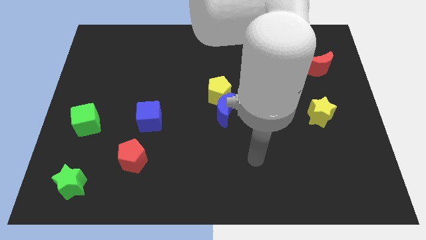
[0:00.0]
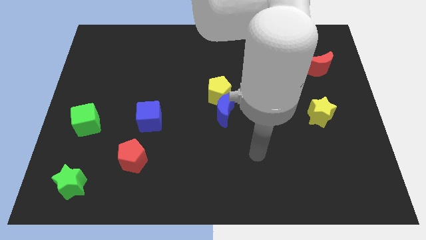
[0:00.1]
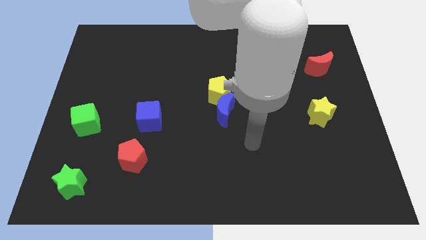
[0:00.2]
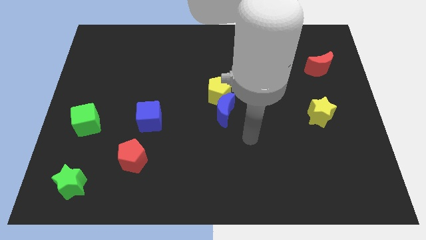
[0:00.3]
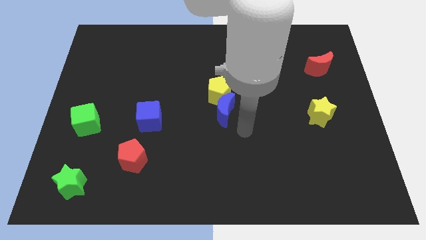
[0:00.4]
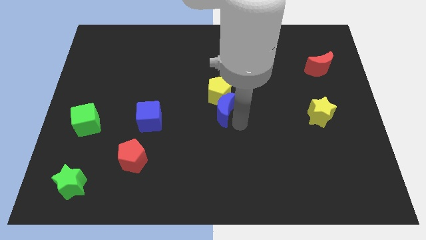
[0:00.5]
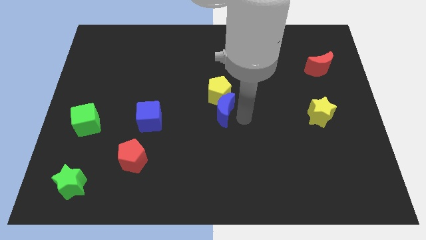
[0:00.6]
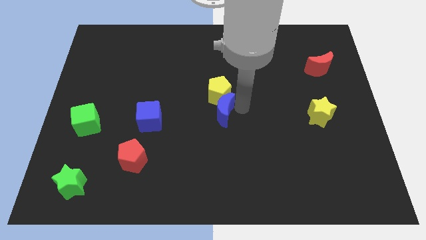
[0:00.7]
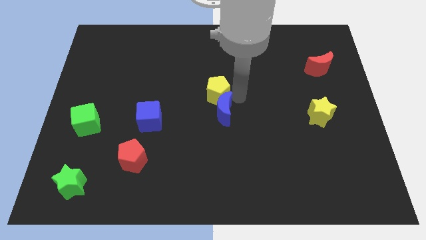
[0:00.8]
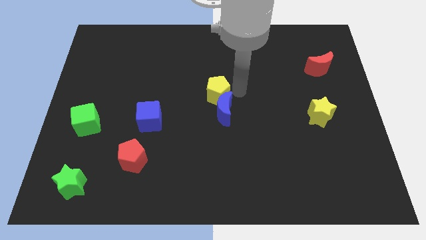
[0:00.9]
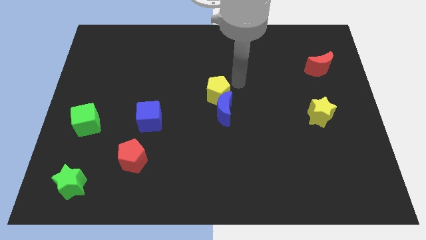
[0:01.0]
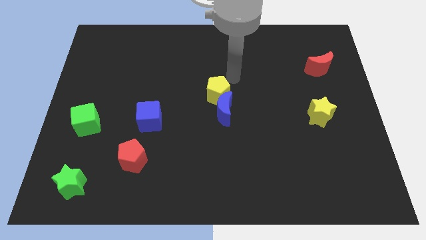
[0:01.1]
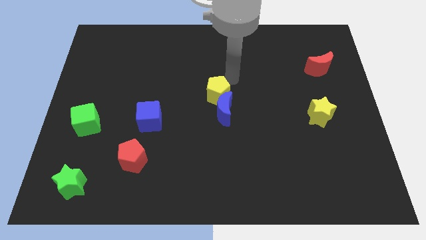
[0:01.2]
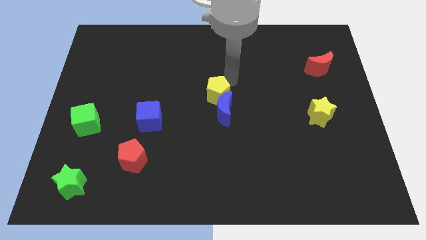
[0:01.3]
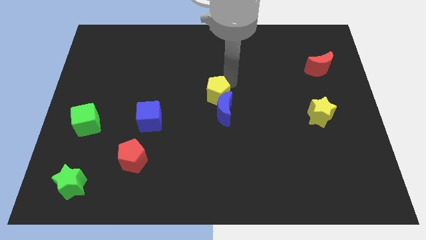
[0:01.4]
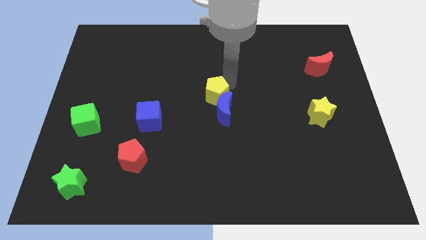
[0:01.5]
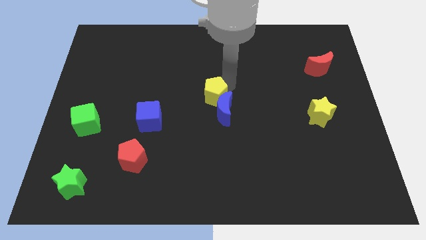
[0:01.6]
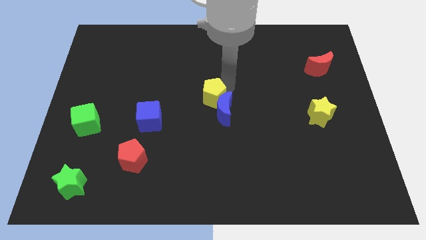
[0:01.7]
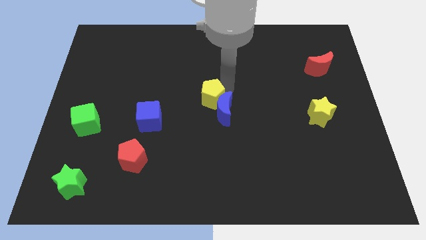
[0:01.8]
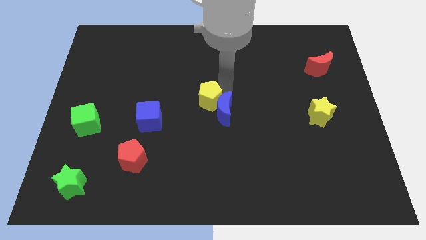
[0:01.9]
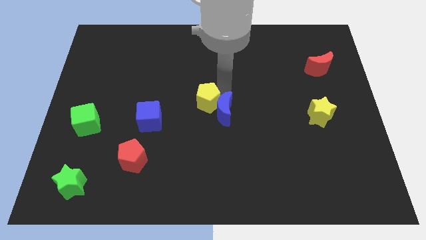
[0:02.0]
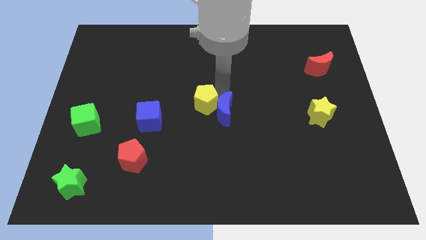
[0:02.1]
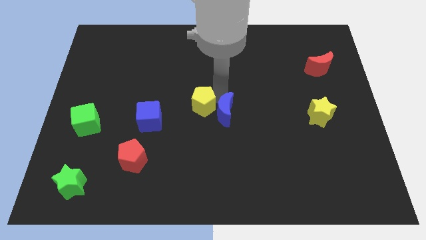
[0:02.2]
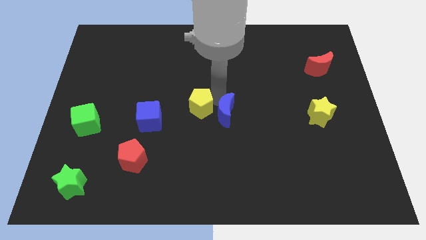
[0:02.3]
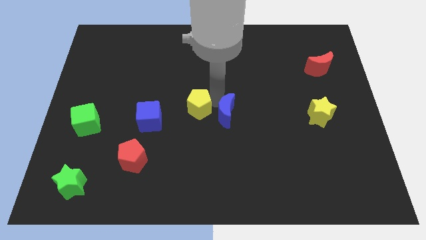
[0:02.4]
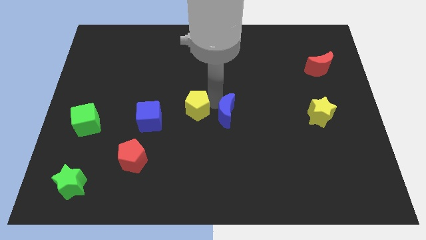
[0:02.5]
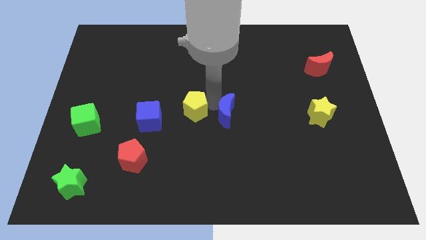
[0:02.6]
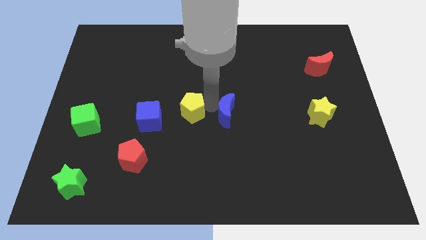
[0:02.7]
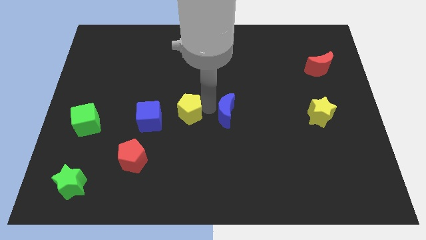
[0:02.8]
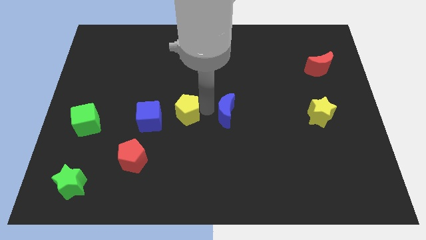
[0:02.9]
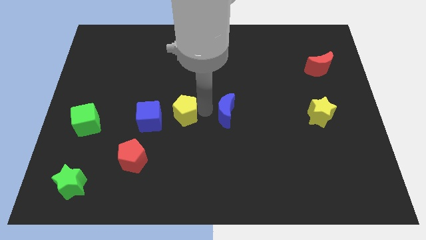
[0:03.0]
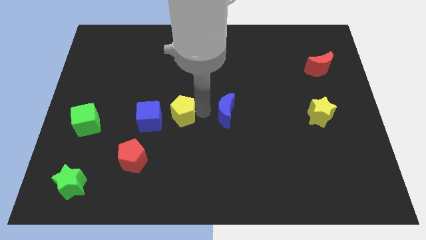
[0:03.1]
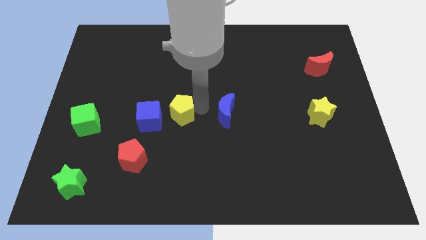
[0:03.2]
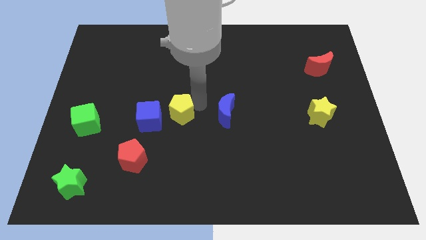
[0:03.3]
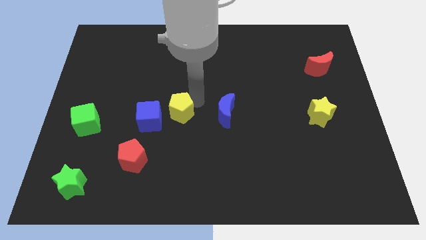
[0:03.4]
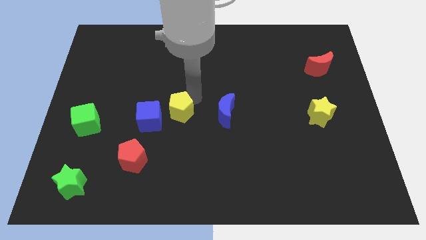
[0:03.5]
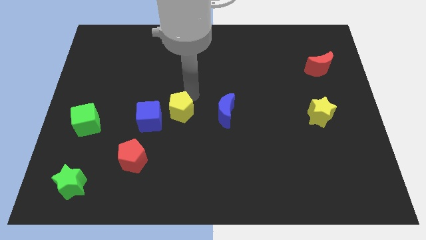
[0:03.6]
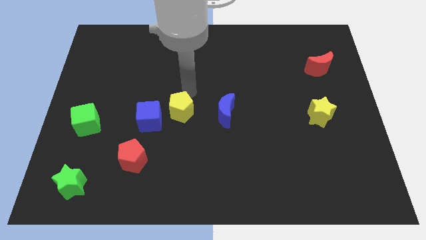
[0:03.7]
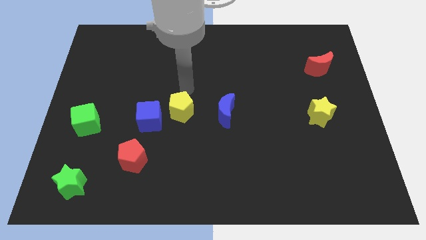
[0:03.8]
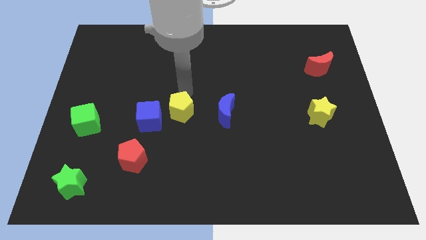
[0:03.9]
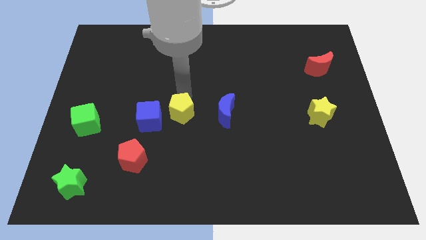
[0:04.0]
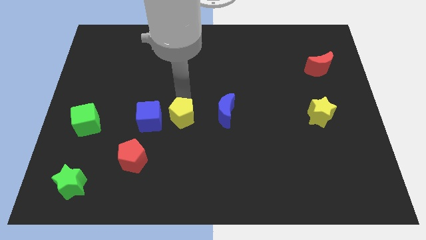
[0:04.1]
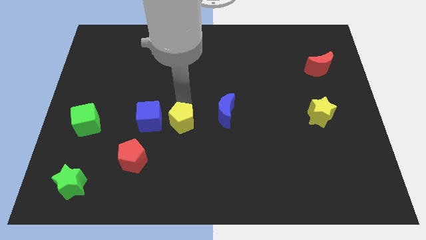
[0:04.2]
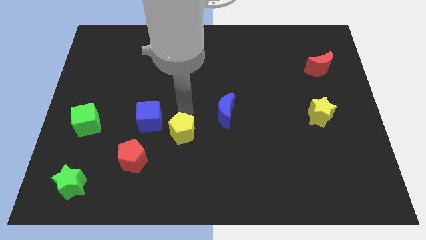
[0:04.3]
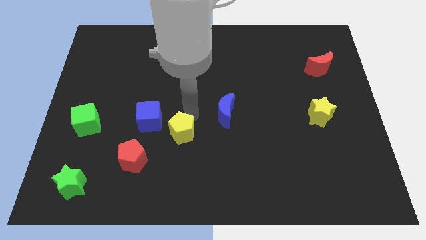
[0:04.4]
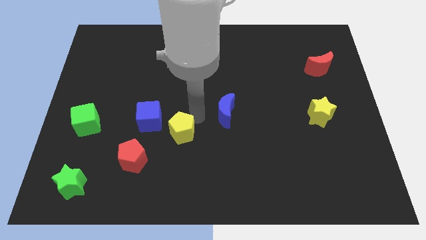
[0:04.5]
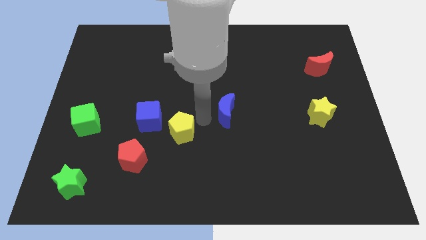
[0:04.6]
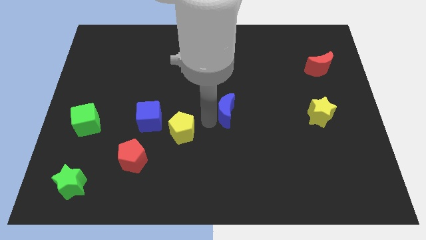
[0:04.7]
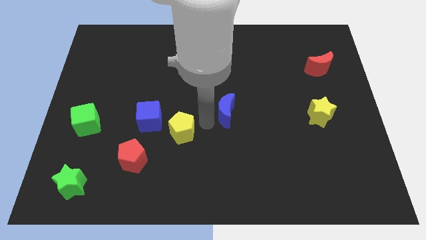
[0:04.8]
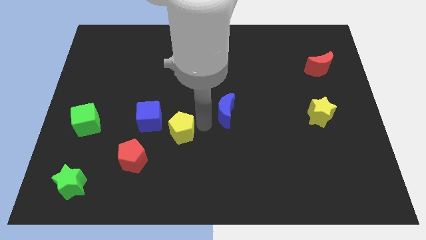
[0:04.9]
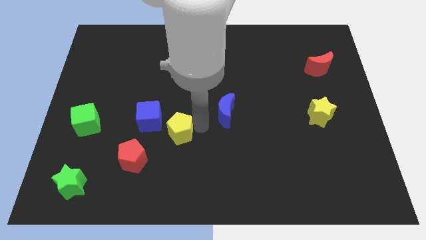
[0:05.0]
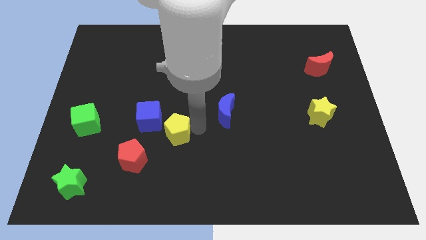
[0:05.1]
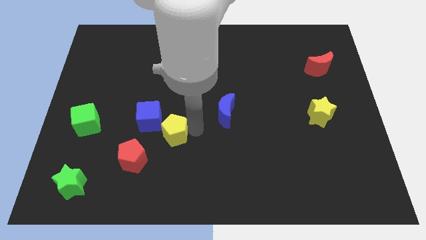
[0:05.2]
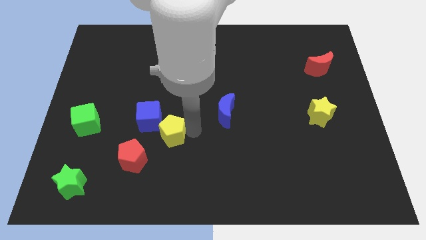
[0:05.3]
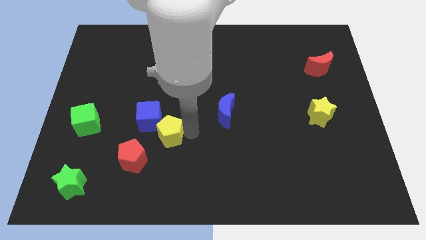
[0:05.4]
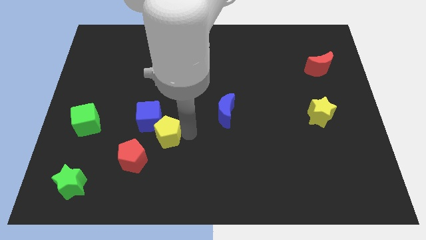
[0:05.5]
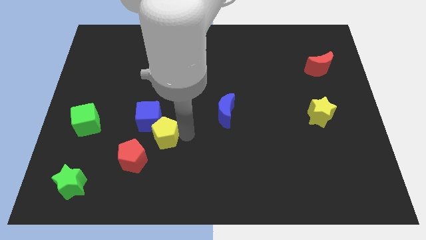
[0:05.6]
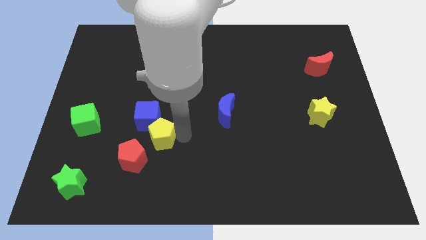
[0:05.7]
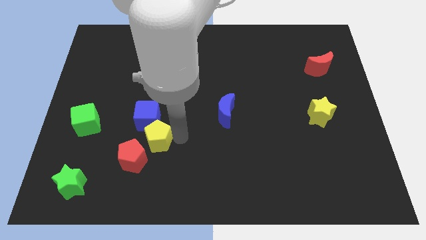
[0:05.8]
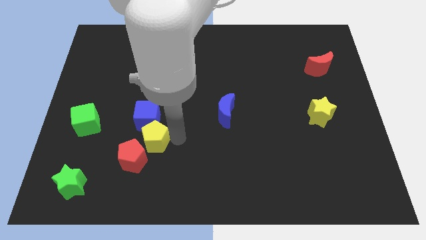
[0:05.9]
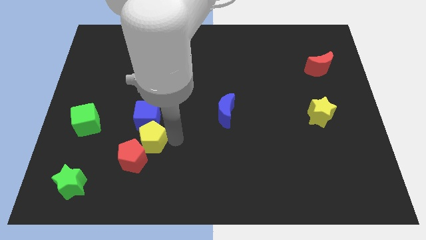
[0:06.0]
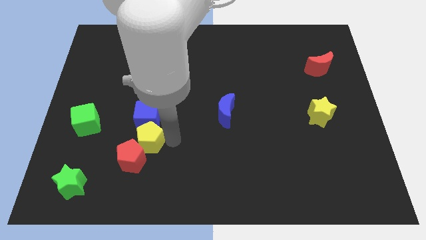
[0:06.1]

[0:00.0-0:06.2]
push the yellow pentagon downwards and then to the left

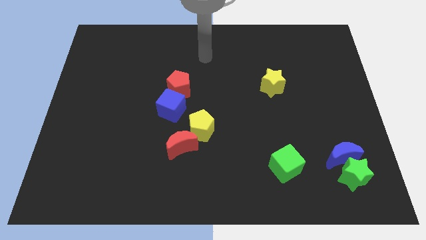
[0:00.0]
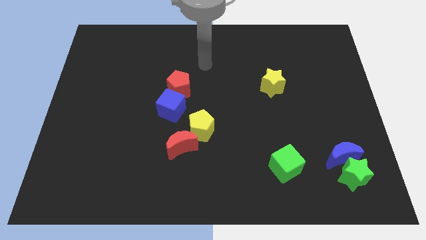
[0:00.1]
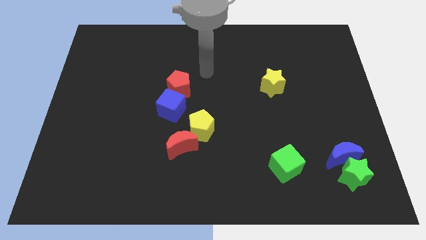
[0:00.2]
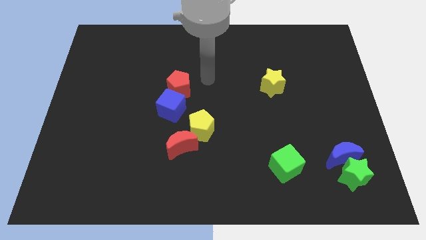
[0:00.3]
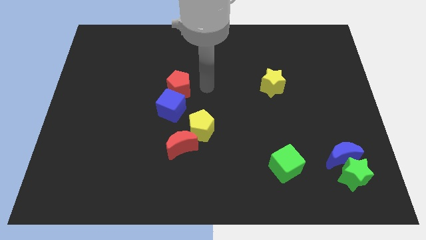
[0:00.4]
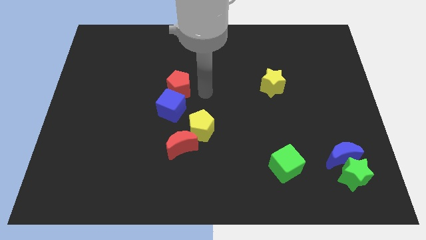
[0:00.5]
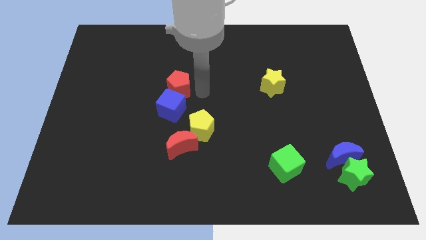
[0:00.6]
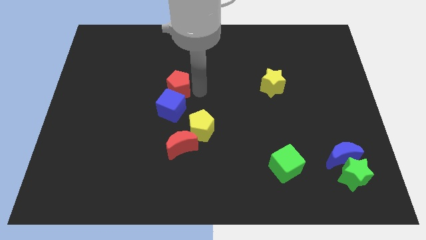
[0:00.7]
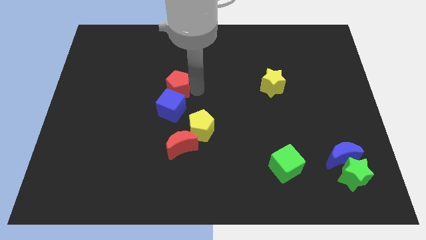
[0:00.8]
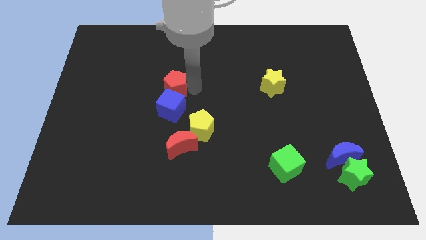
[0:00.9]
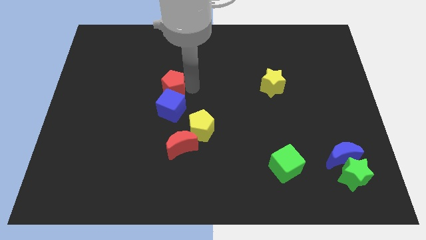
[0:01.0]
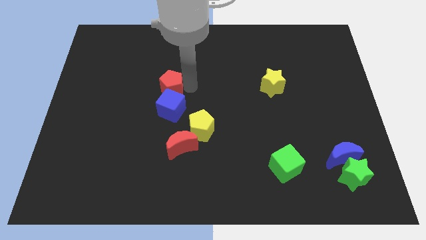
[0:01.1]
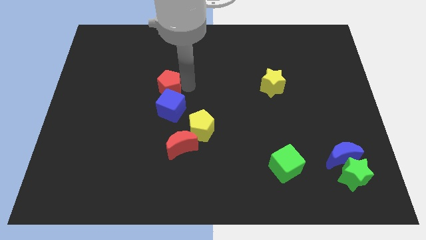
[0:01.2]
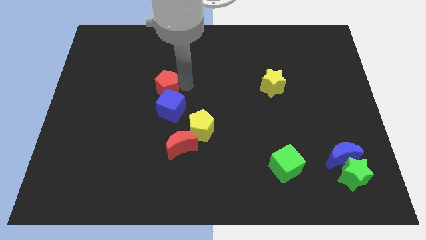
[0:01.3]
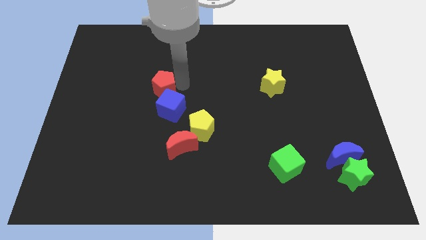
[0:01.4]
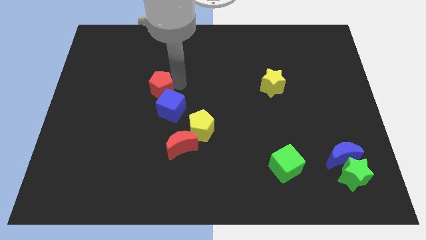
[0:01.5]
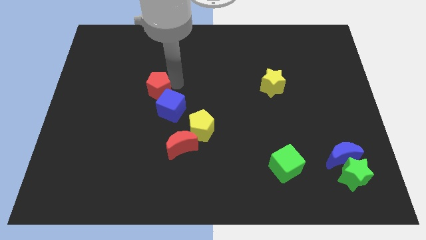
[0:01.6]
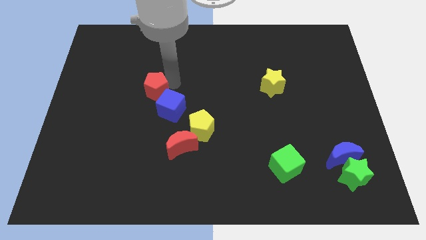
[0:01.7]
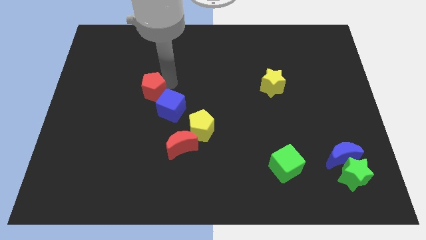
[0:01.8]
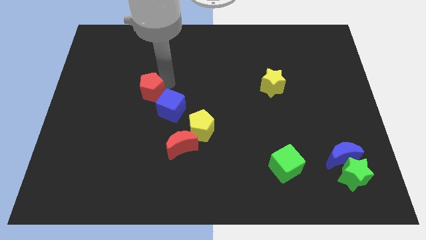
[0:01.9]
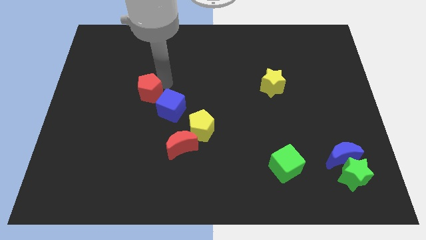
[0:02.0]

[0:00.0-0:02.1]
move the red pentagon a little bit to the left

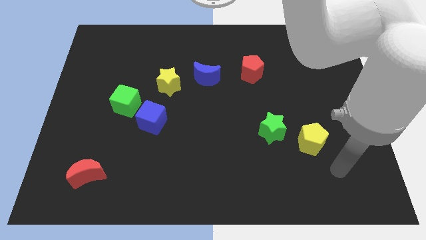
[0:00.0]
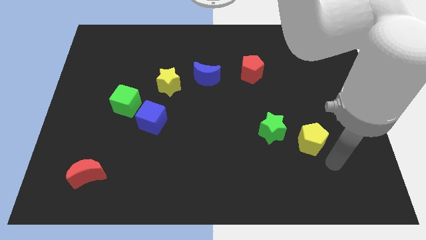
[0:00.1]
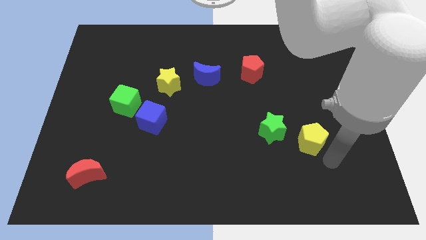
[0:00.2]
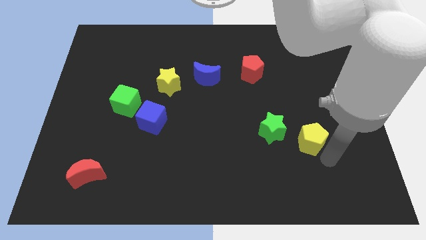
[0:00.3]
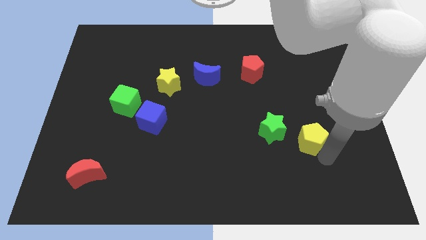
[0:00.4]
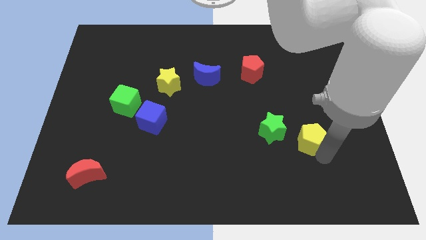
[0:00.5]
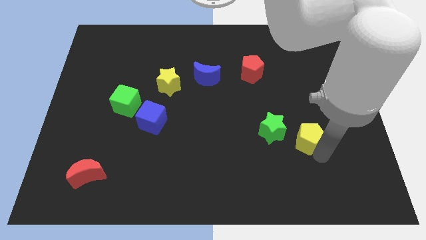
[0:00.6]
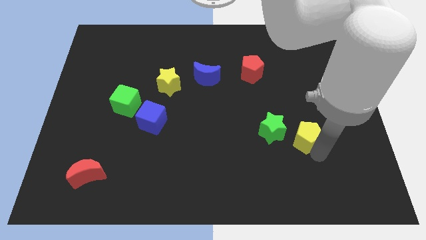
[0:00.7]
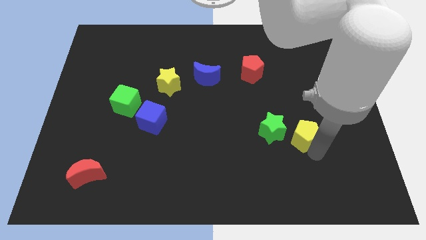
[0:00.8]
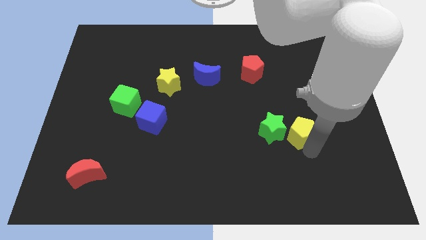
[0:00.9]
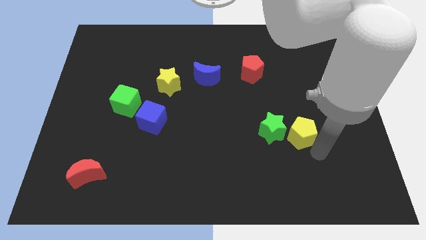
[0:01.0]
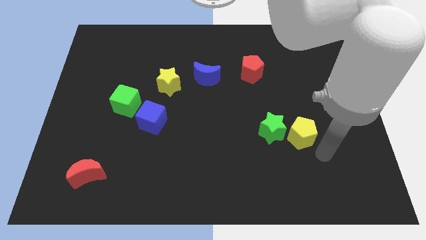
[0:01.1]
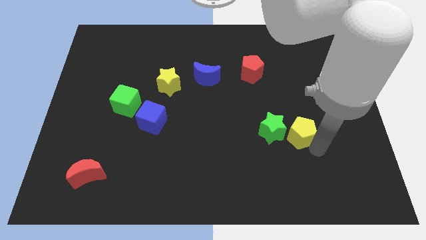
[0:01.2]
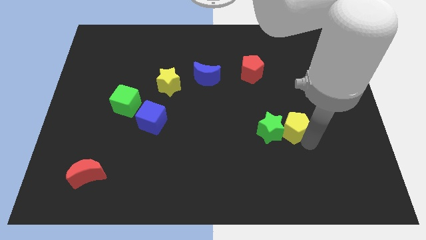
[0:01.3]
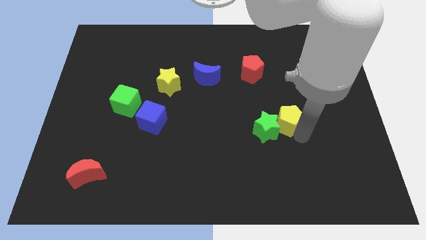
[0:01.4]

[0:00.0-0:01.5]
push the yellow pentagon upwards and then to the left a little bit
